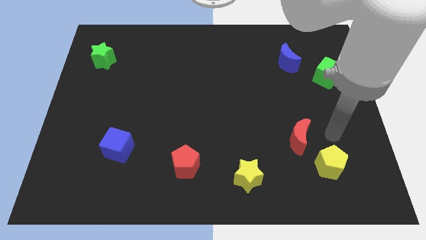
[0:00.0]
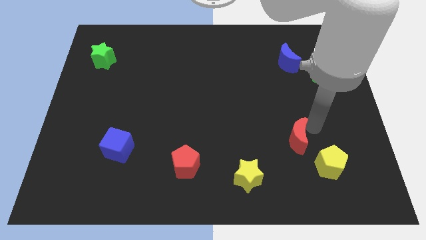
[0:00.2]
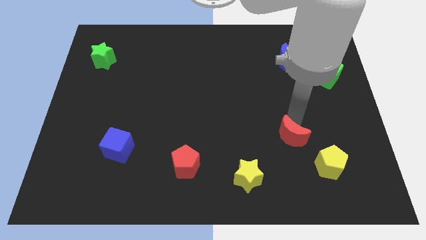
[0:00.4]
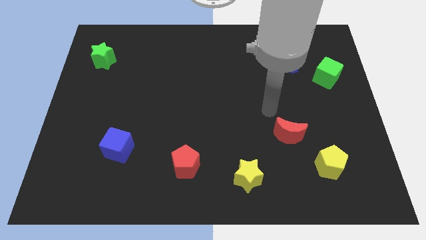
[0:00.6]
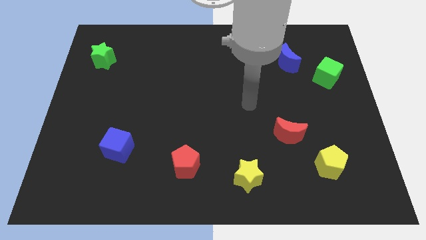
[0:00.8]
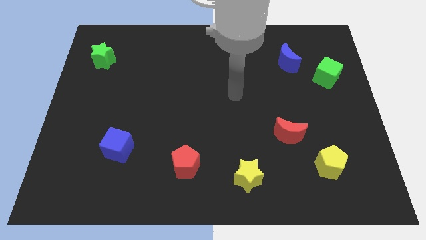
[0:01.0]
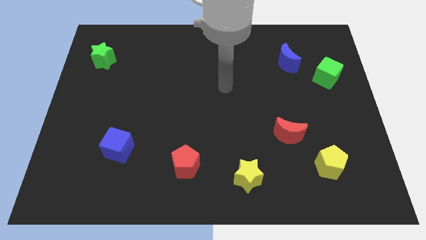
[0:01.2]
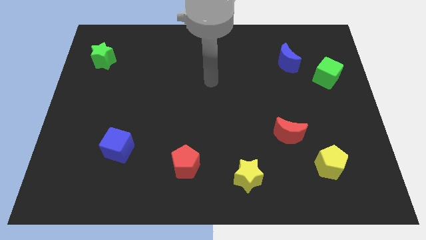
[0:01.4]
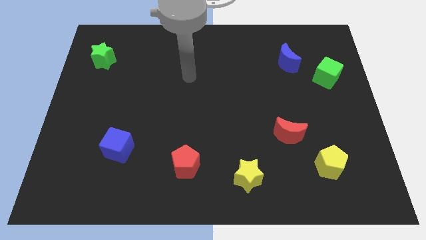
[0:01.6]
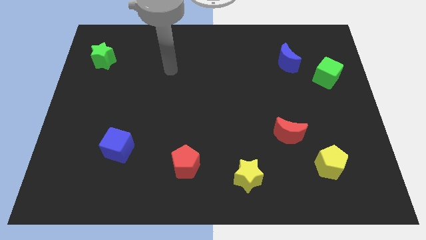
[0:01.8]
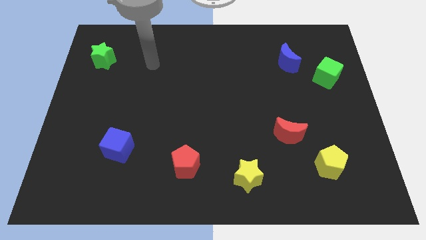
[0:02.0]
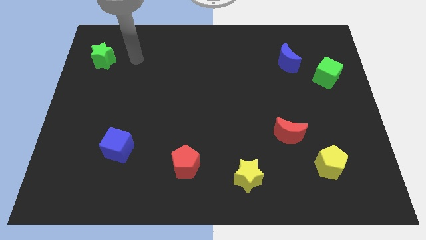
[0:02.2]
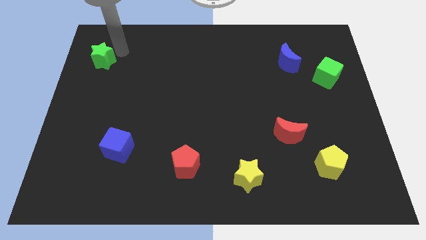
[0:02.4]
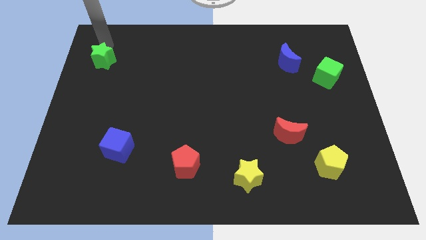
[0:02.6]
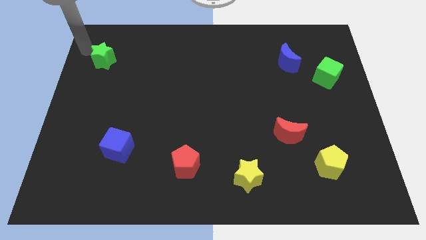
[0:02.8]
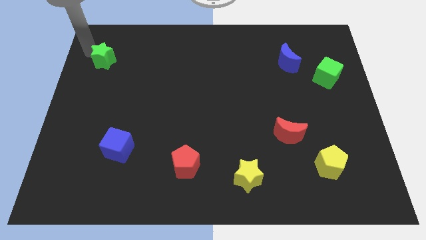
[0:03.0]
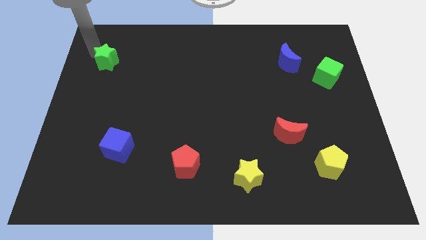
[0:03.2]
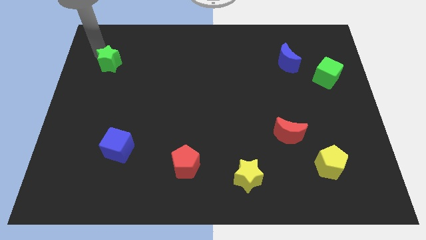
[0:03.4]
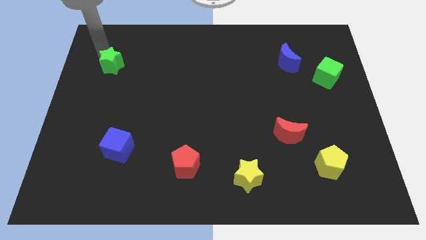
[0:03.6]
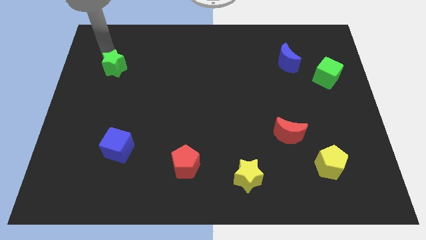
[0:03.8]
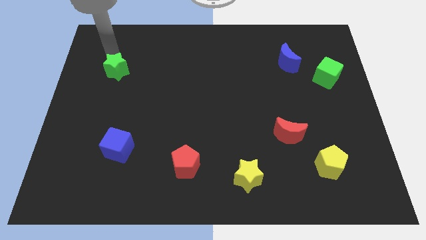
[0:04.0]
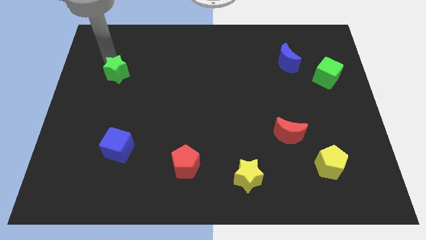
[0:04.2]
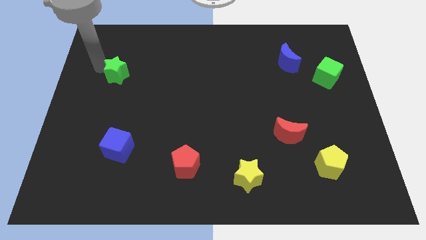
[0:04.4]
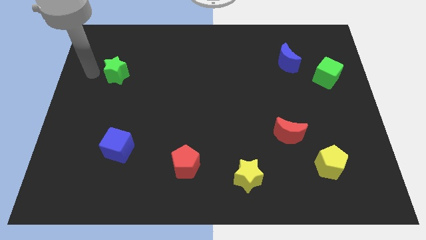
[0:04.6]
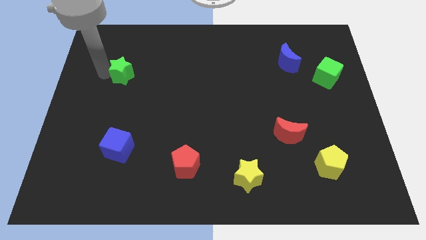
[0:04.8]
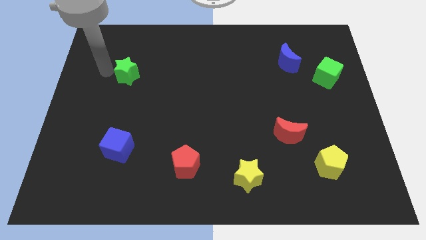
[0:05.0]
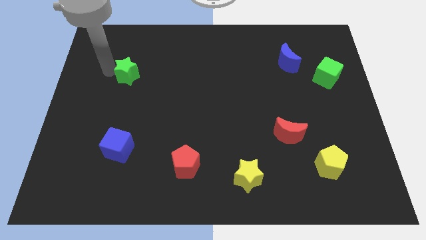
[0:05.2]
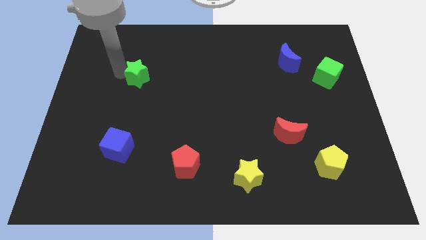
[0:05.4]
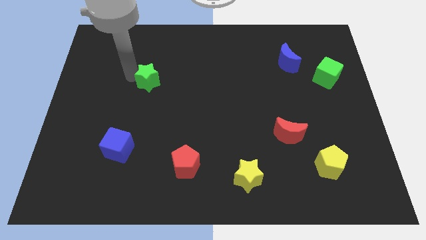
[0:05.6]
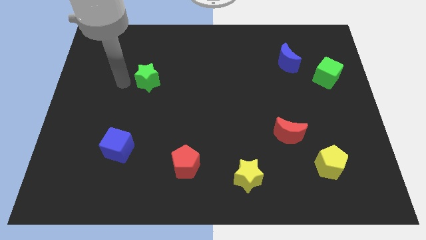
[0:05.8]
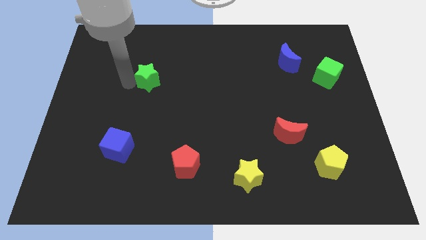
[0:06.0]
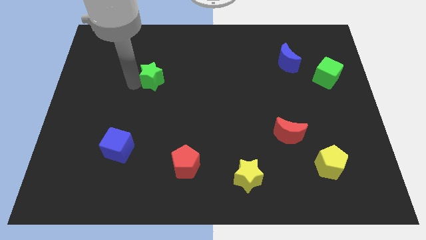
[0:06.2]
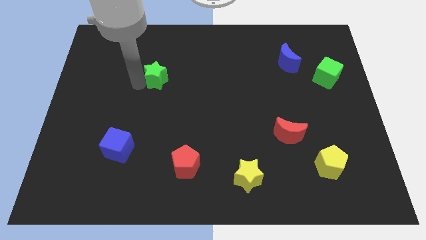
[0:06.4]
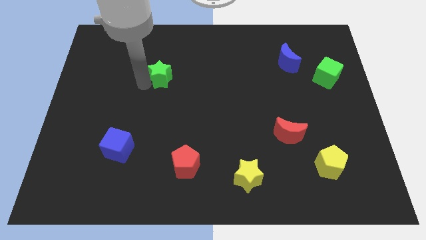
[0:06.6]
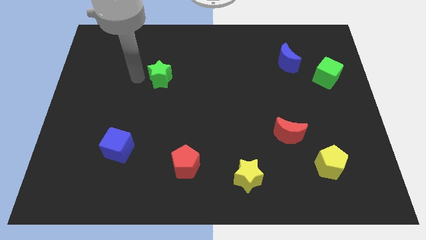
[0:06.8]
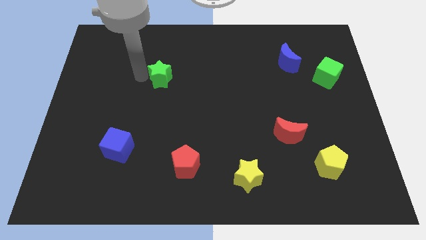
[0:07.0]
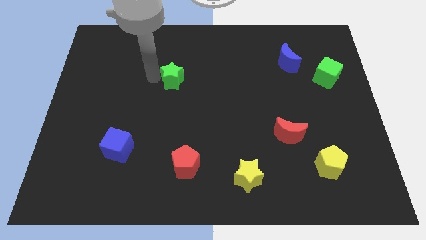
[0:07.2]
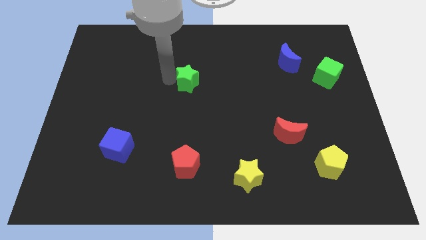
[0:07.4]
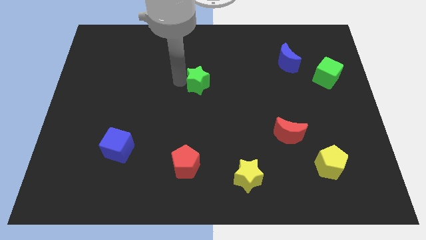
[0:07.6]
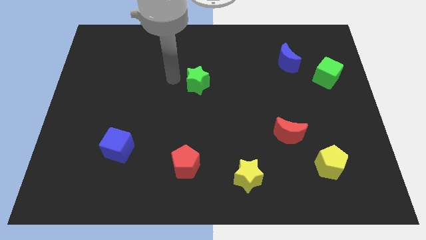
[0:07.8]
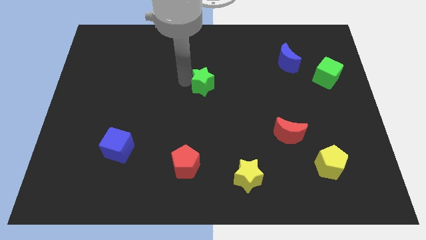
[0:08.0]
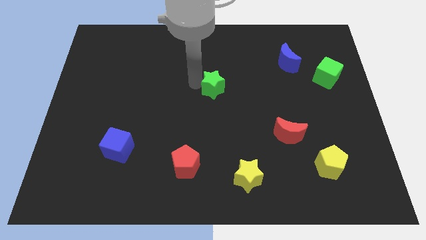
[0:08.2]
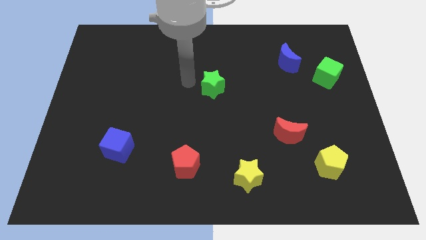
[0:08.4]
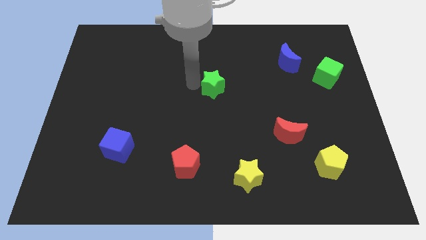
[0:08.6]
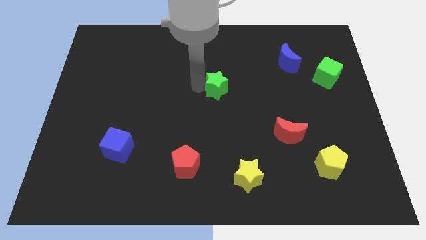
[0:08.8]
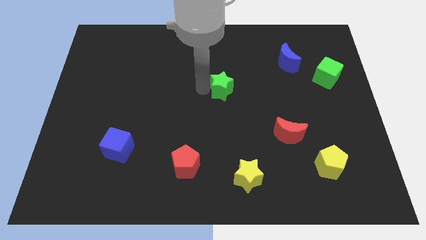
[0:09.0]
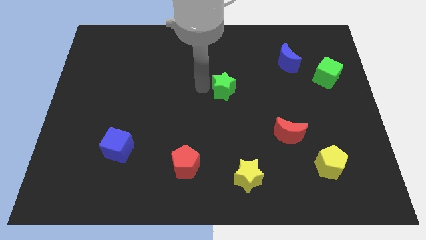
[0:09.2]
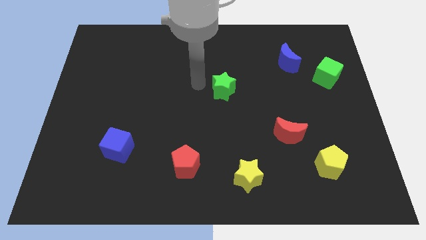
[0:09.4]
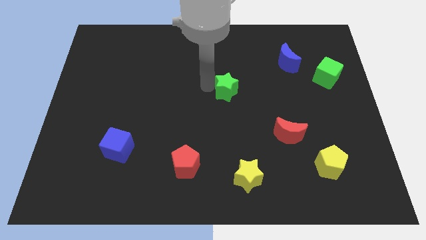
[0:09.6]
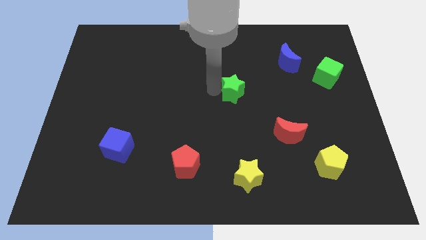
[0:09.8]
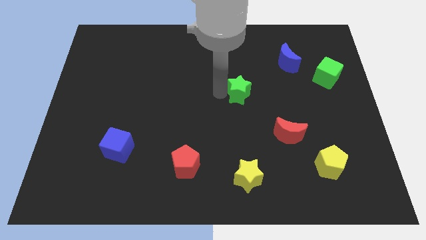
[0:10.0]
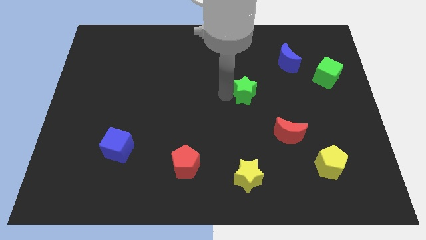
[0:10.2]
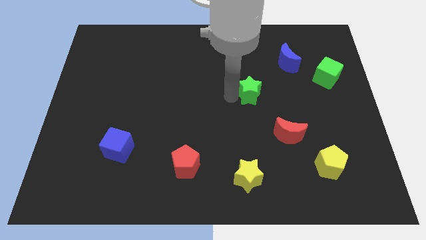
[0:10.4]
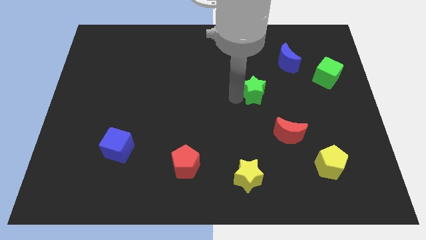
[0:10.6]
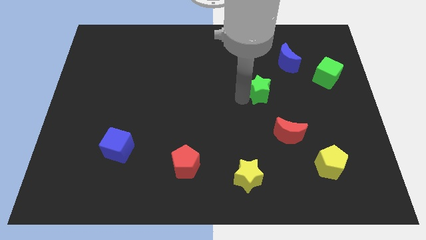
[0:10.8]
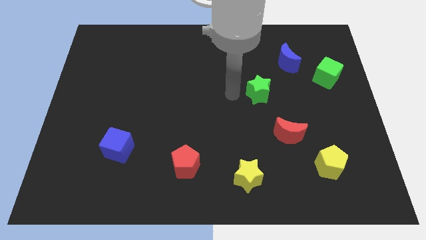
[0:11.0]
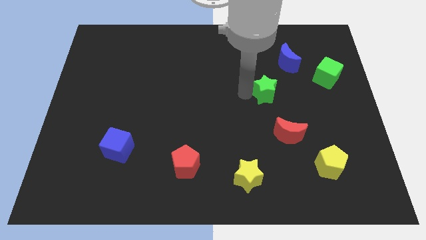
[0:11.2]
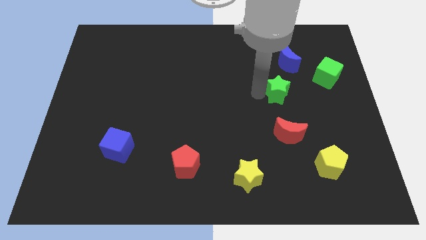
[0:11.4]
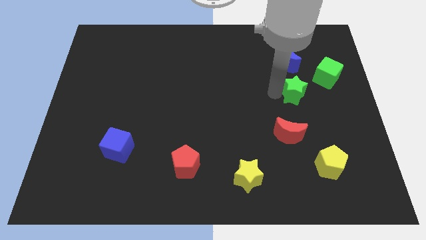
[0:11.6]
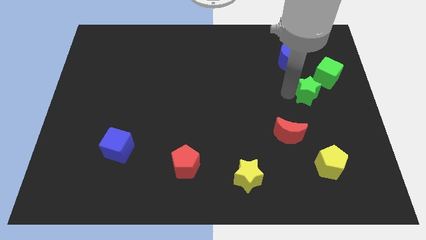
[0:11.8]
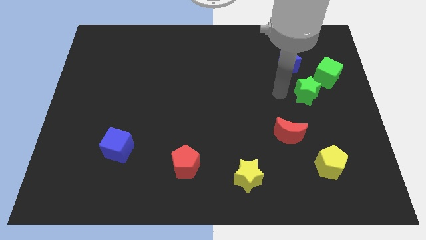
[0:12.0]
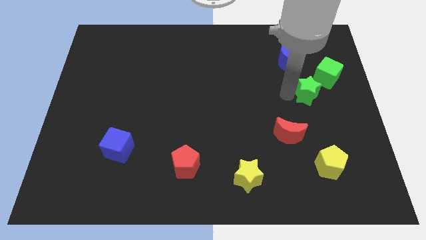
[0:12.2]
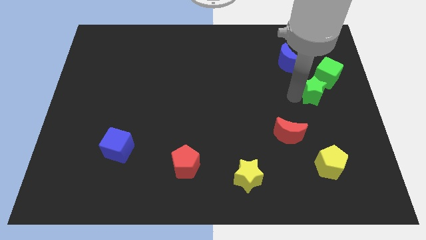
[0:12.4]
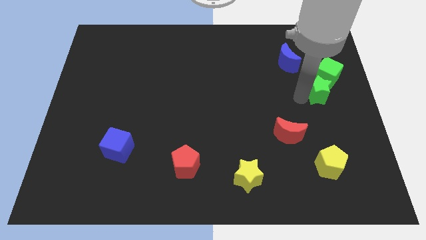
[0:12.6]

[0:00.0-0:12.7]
move the green star to the center right
